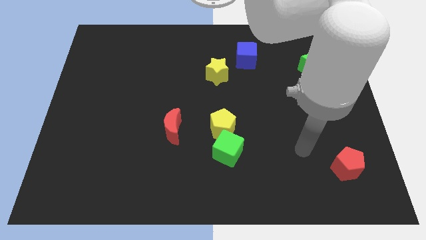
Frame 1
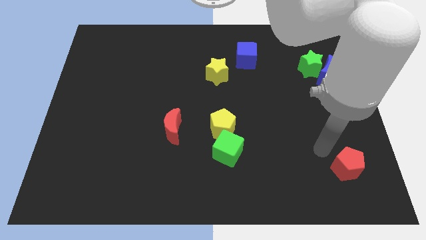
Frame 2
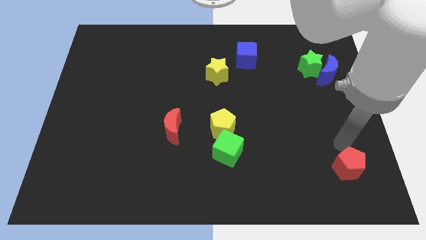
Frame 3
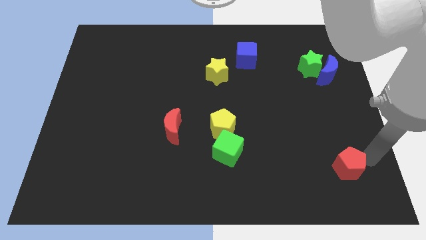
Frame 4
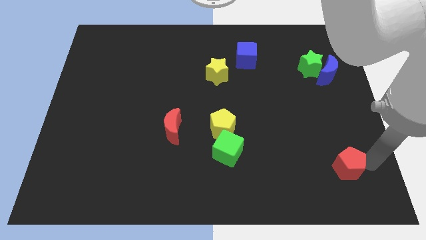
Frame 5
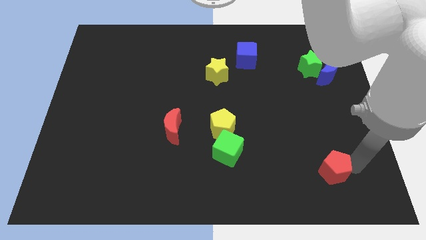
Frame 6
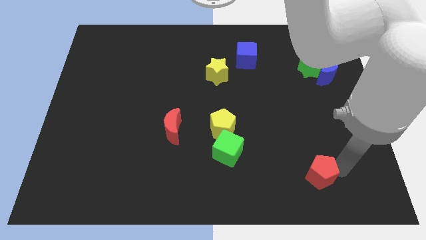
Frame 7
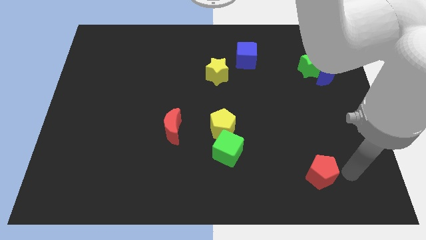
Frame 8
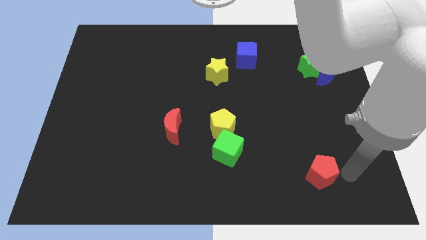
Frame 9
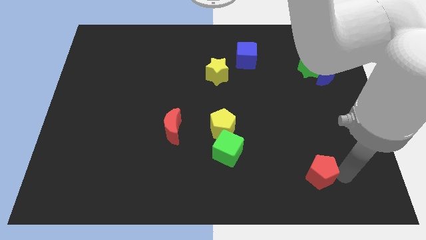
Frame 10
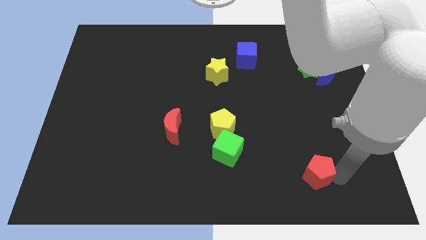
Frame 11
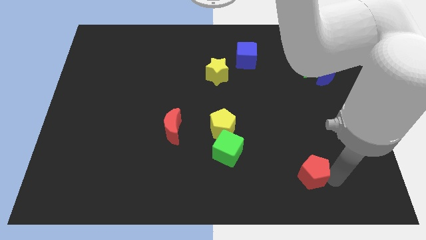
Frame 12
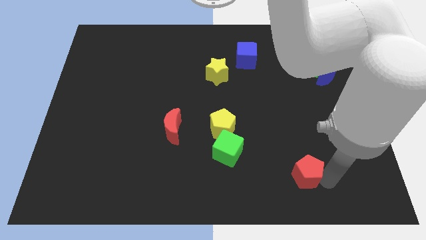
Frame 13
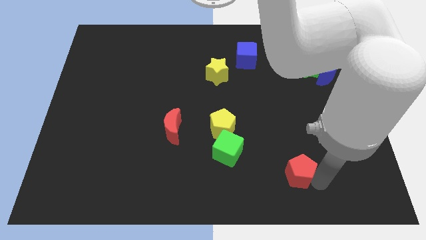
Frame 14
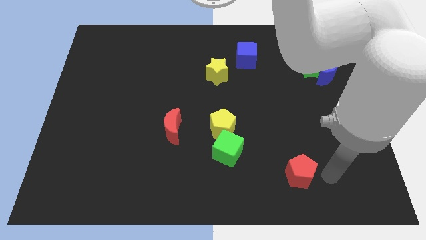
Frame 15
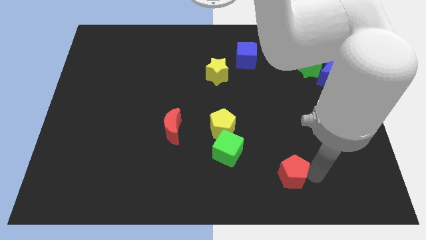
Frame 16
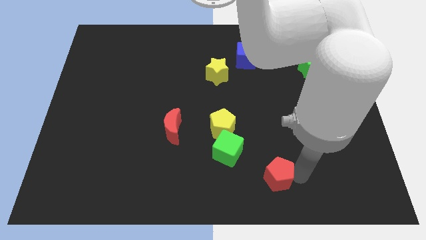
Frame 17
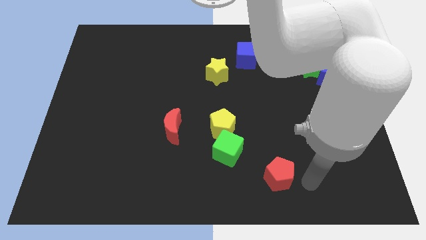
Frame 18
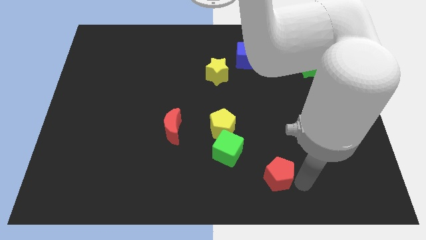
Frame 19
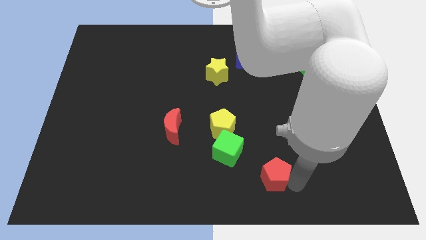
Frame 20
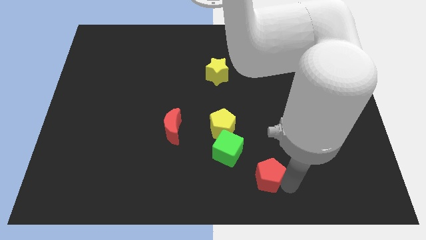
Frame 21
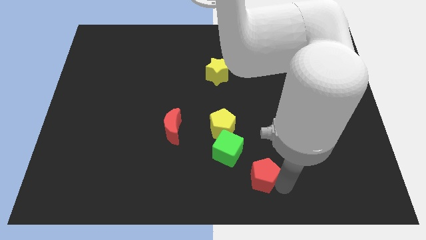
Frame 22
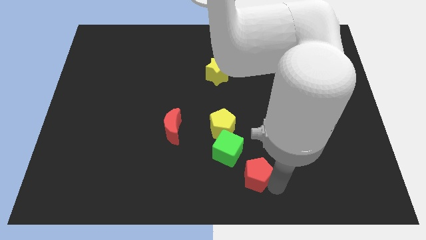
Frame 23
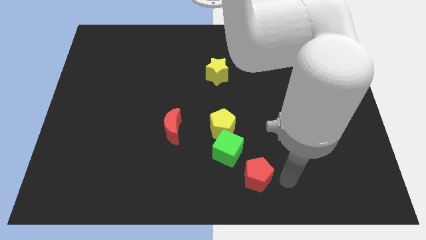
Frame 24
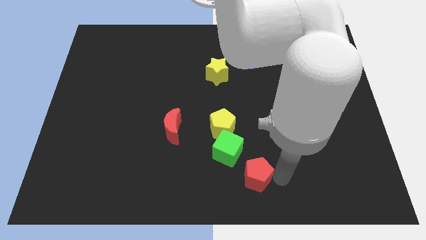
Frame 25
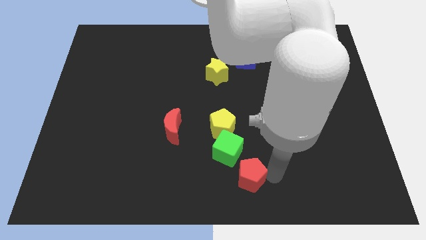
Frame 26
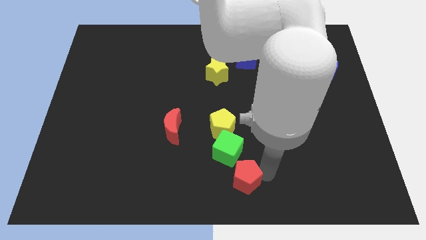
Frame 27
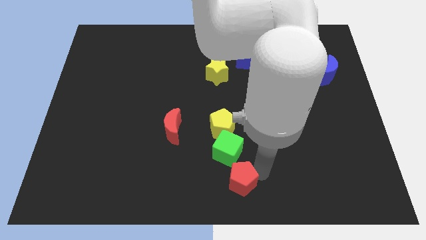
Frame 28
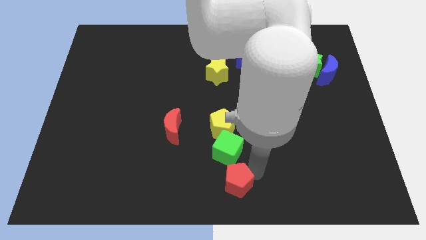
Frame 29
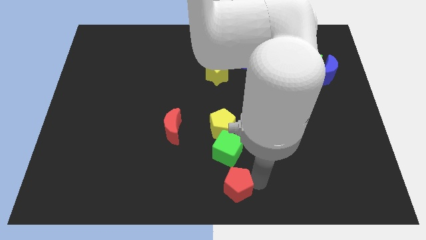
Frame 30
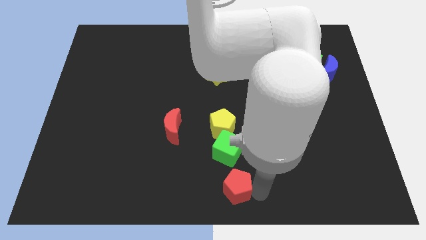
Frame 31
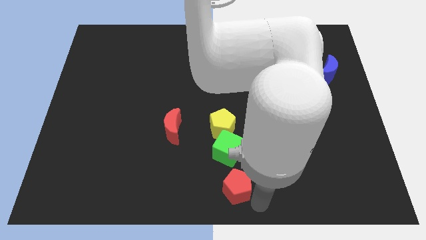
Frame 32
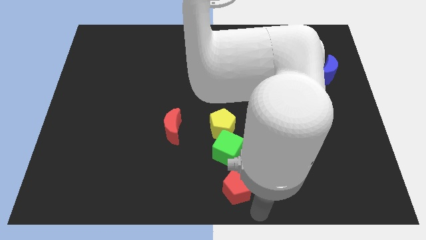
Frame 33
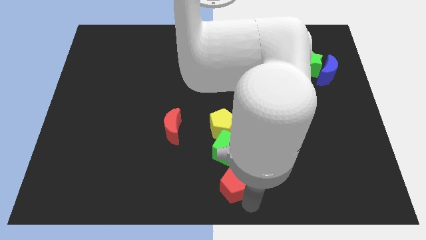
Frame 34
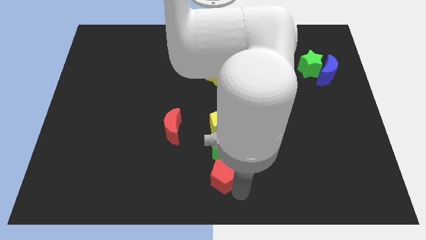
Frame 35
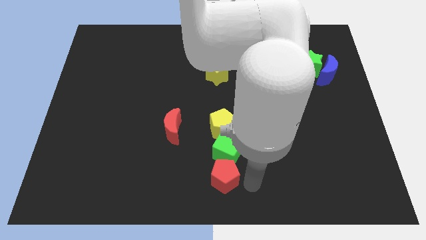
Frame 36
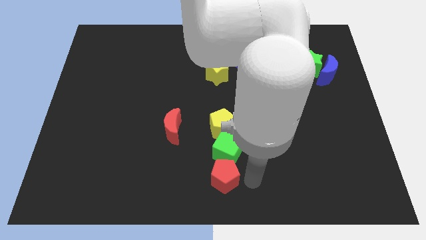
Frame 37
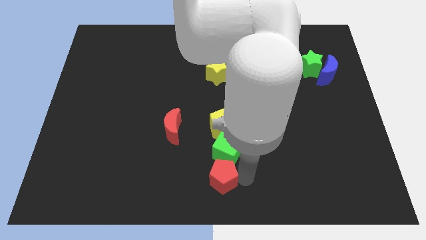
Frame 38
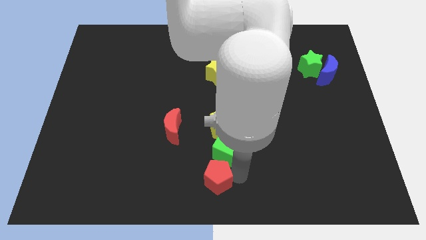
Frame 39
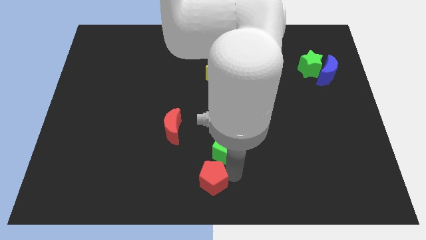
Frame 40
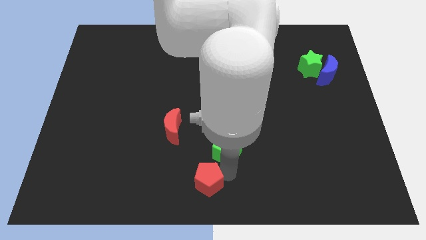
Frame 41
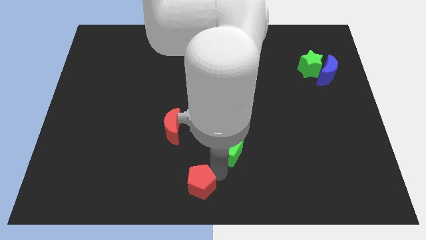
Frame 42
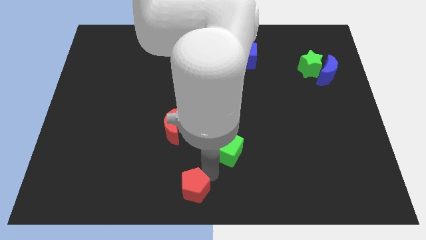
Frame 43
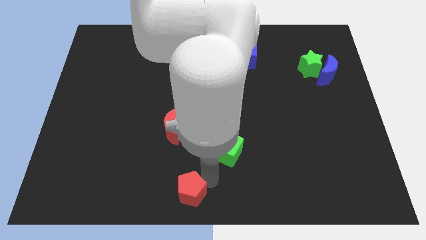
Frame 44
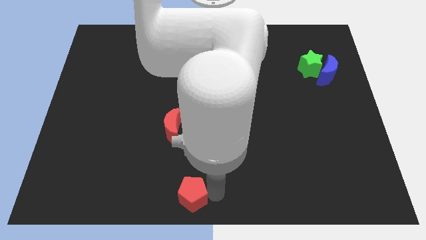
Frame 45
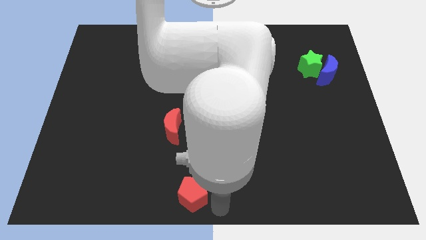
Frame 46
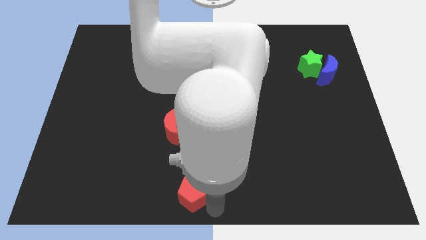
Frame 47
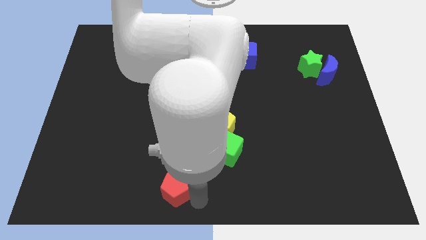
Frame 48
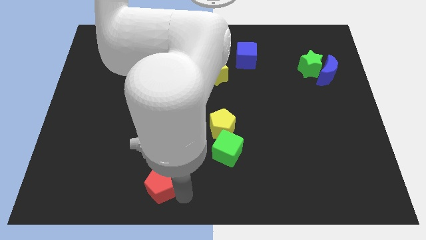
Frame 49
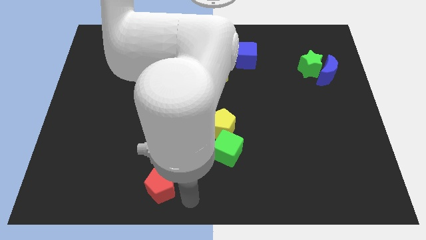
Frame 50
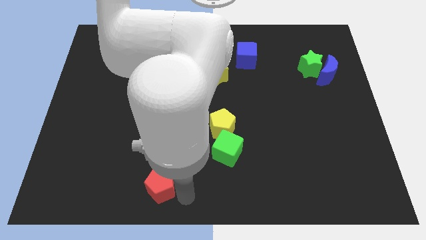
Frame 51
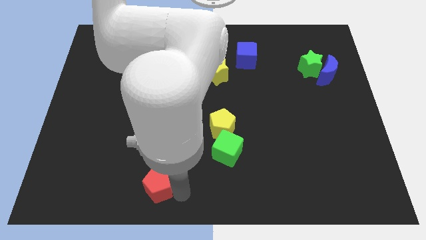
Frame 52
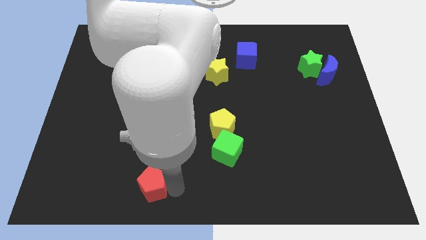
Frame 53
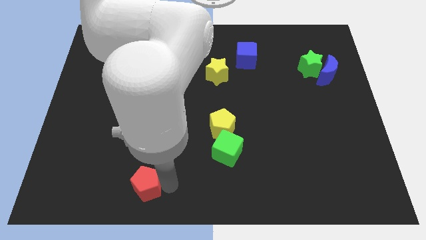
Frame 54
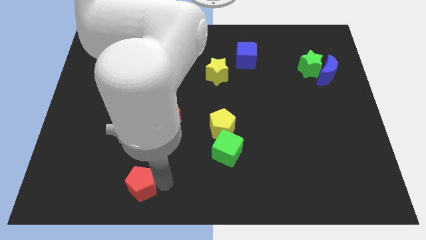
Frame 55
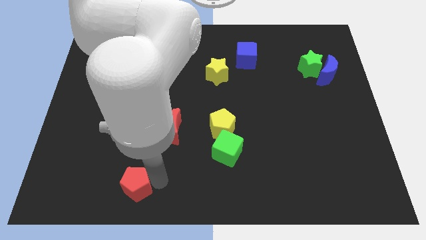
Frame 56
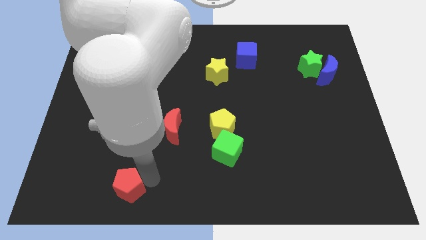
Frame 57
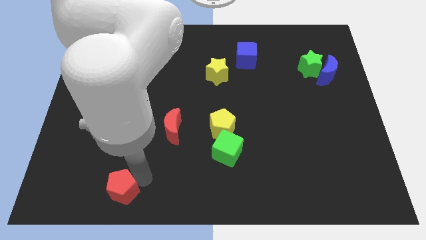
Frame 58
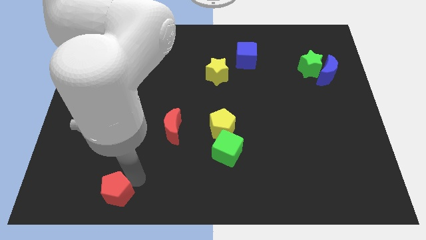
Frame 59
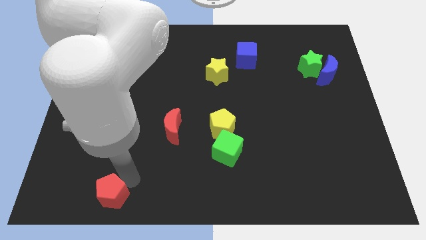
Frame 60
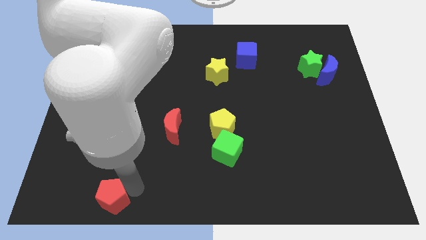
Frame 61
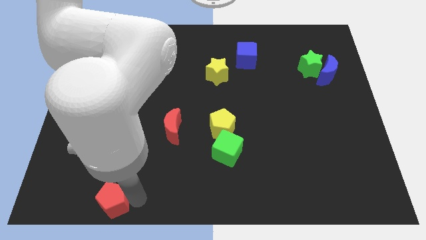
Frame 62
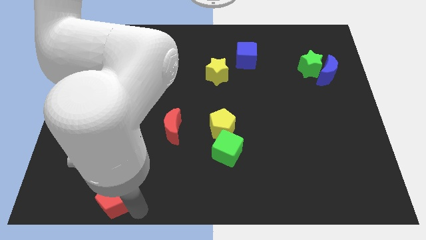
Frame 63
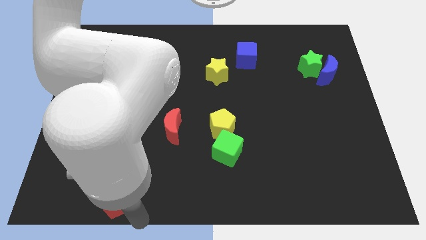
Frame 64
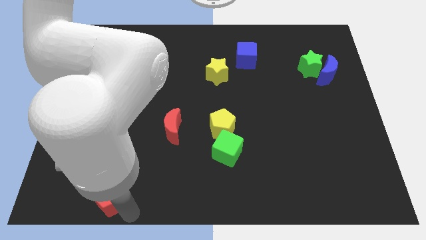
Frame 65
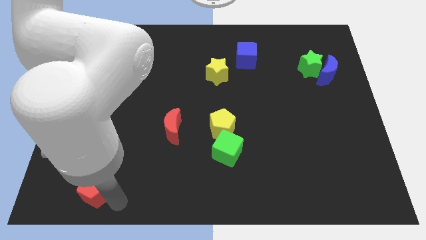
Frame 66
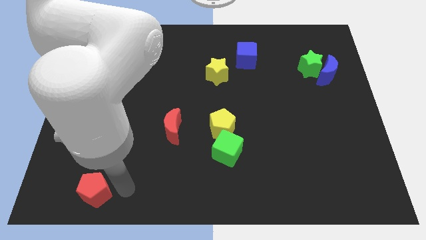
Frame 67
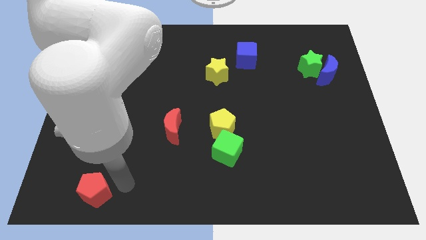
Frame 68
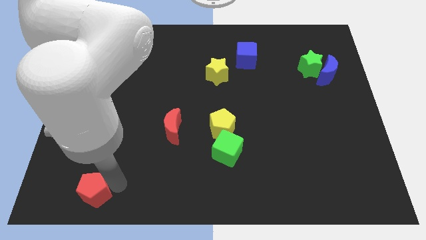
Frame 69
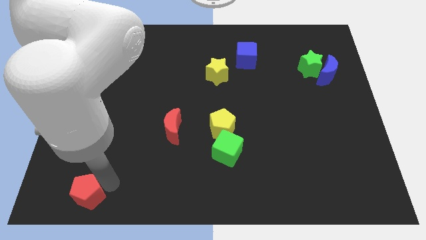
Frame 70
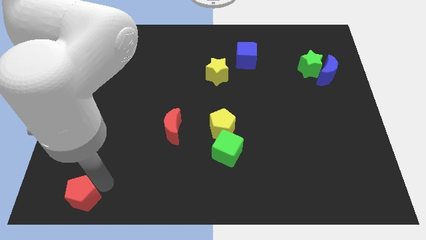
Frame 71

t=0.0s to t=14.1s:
push the red pentagon to the bottom left corner

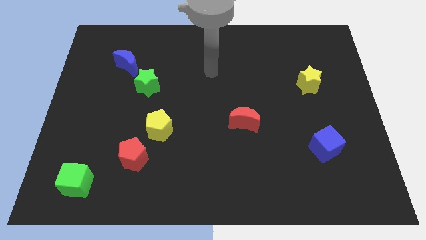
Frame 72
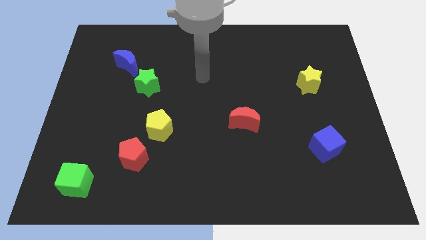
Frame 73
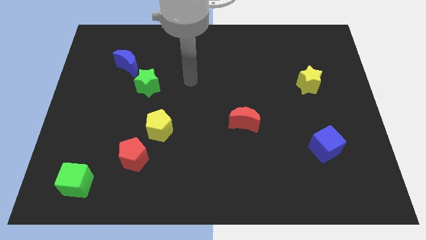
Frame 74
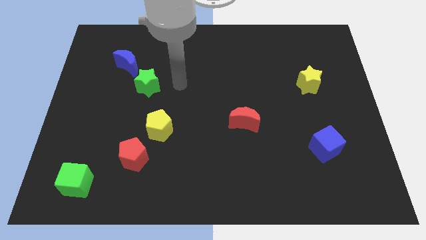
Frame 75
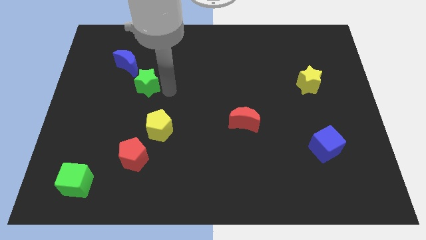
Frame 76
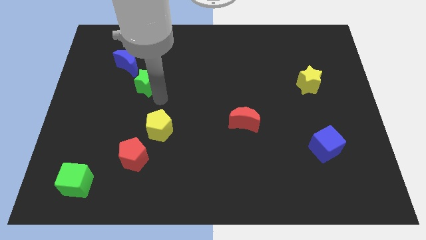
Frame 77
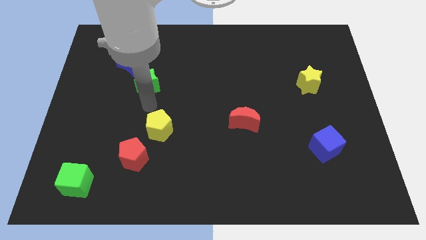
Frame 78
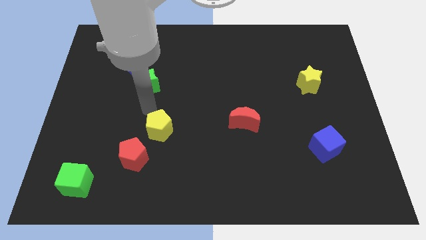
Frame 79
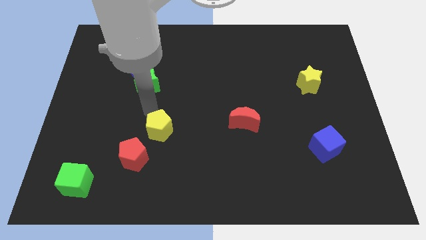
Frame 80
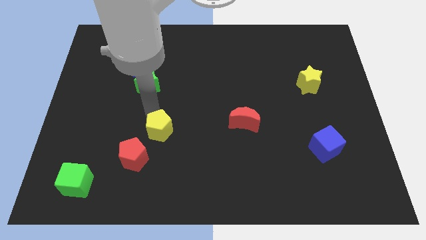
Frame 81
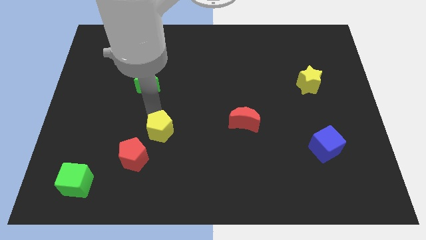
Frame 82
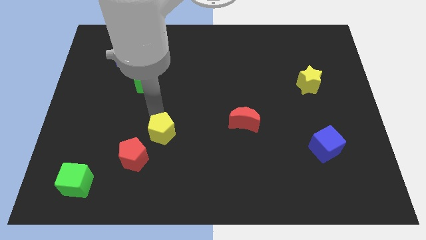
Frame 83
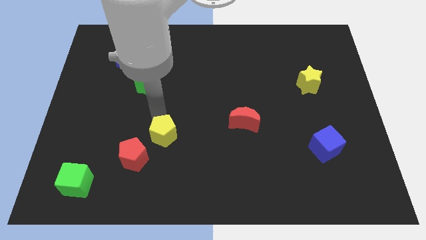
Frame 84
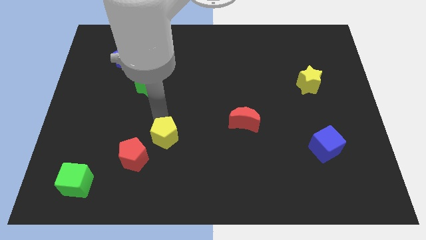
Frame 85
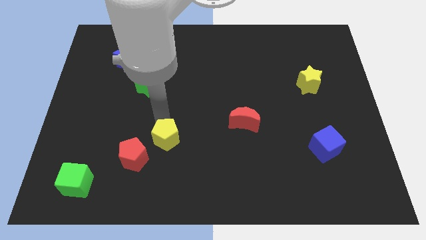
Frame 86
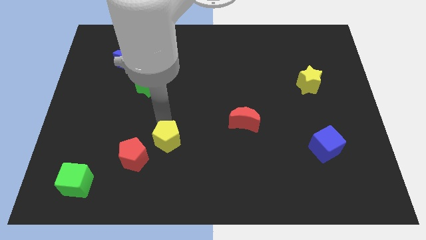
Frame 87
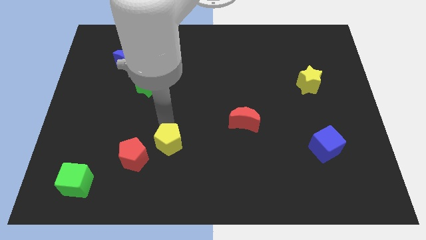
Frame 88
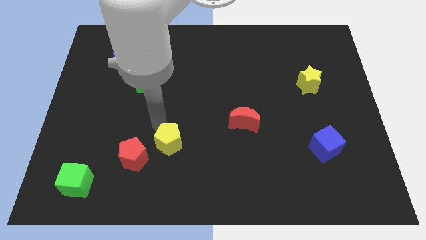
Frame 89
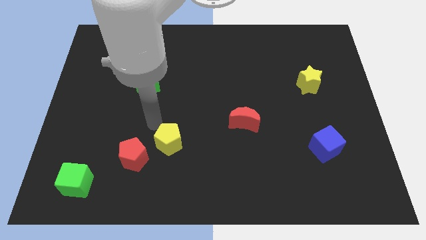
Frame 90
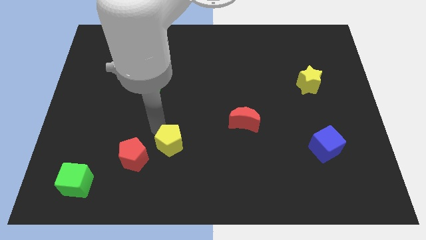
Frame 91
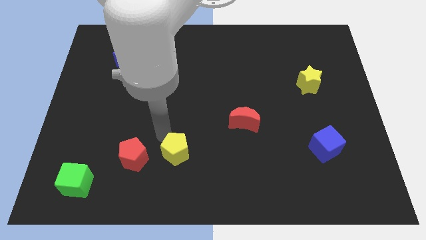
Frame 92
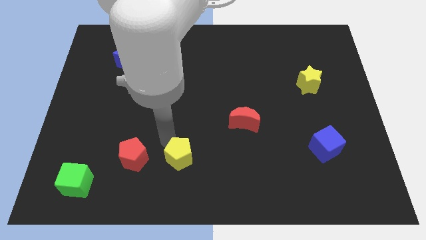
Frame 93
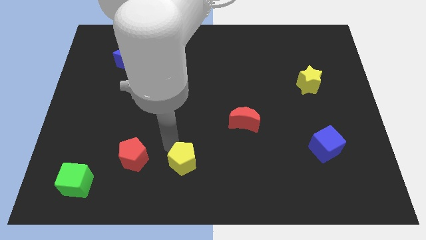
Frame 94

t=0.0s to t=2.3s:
slide the yellow pentagon to the bottom side
